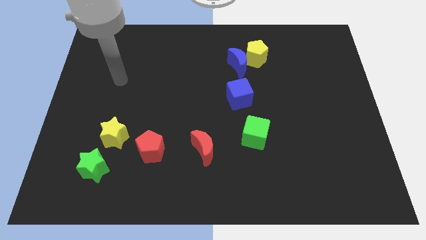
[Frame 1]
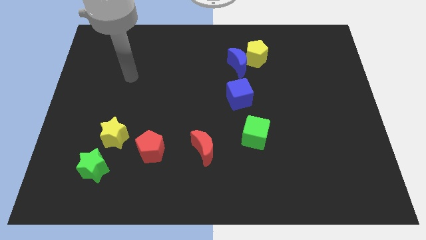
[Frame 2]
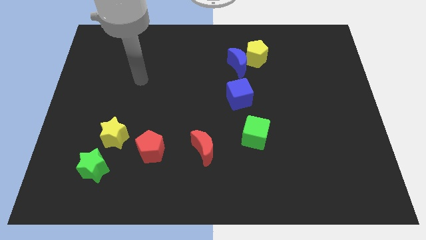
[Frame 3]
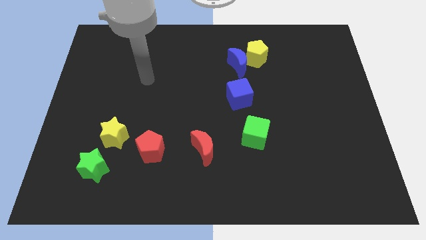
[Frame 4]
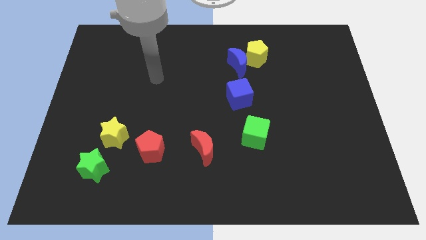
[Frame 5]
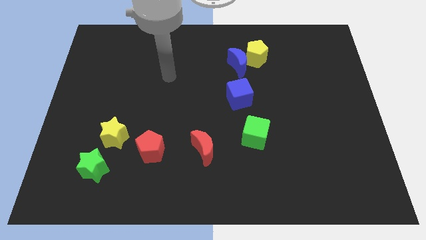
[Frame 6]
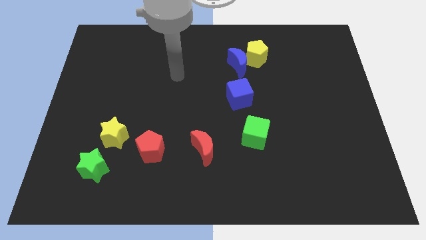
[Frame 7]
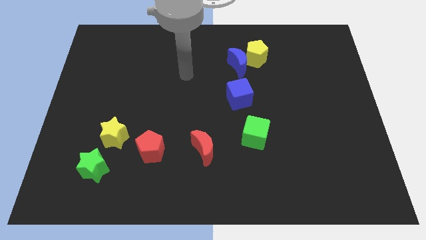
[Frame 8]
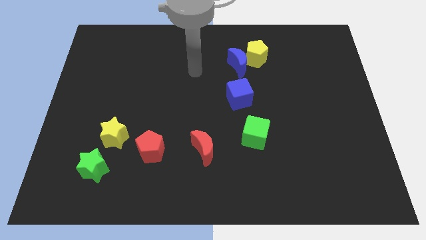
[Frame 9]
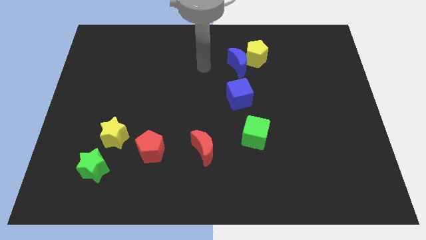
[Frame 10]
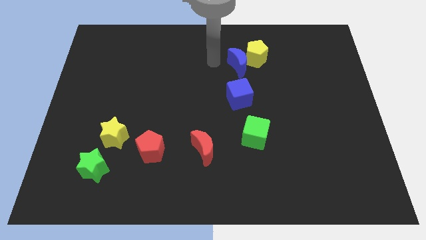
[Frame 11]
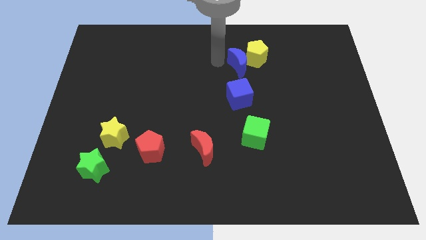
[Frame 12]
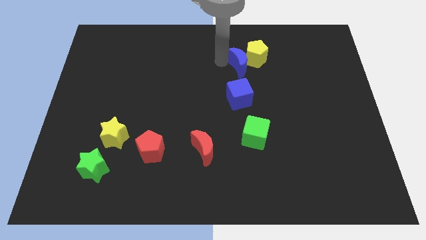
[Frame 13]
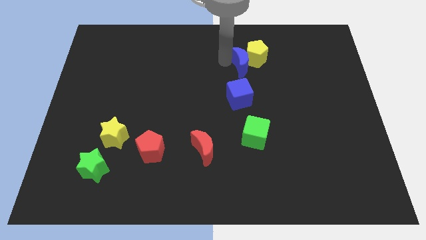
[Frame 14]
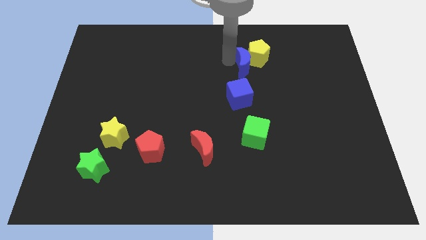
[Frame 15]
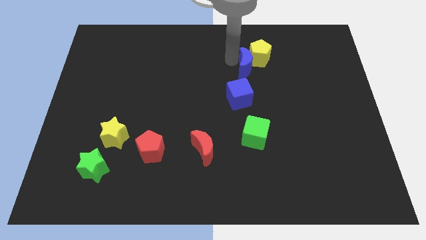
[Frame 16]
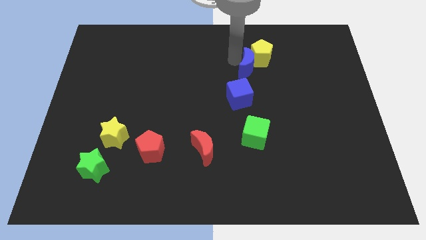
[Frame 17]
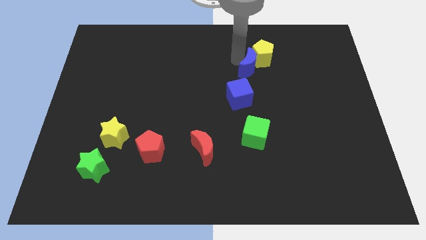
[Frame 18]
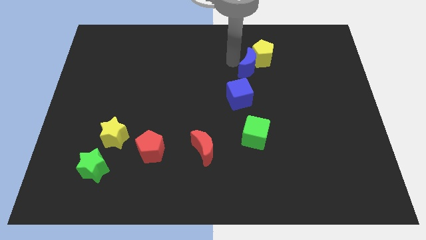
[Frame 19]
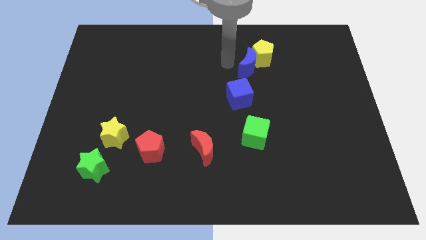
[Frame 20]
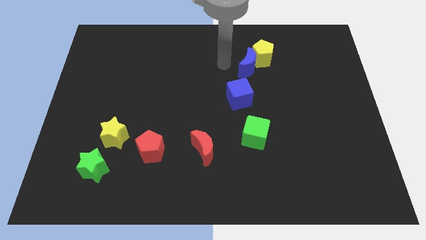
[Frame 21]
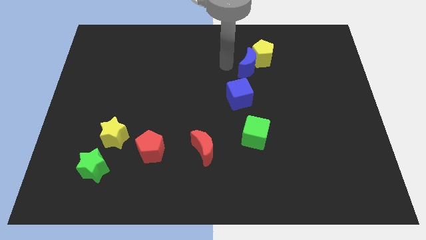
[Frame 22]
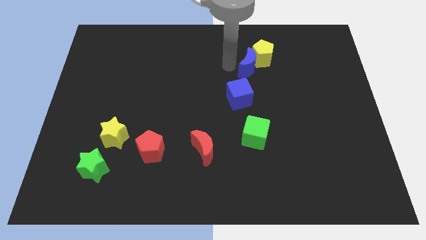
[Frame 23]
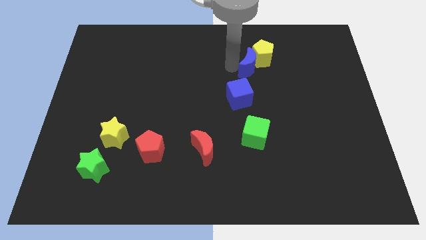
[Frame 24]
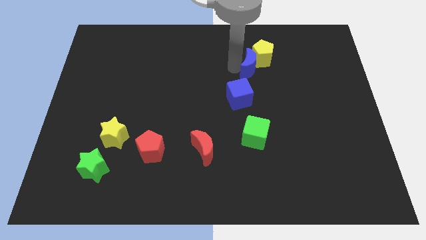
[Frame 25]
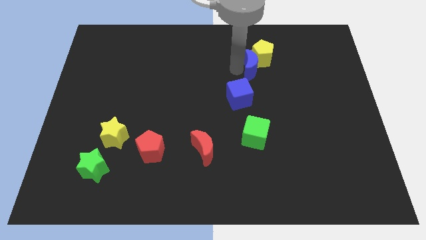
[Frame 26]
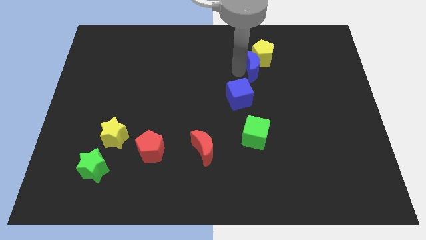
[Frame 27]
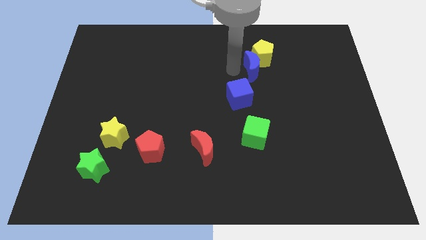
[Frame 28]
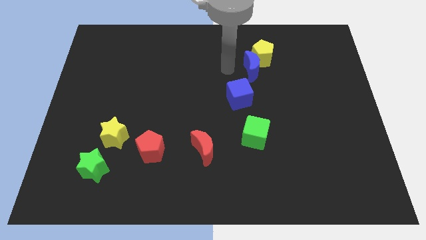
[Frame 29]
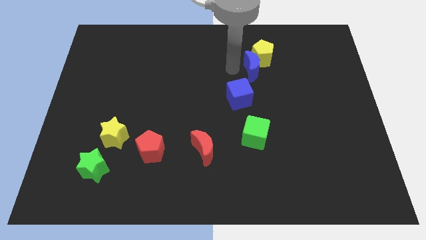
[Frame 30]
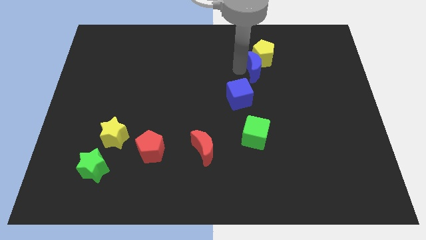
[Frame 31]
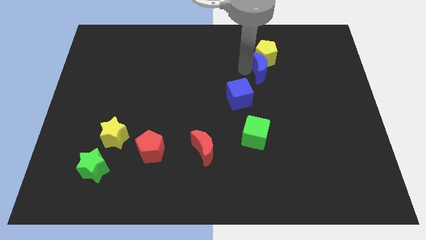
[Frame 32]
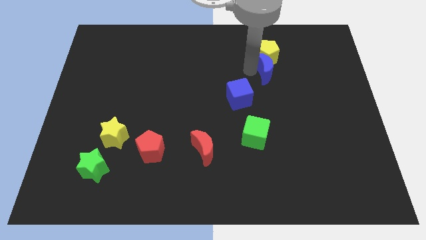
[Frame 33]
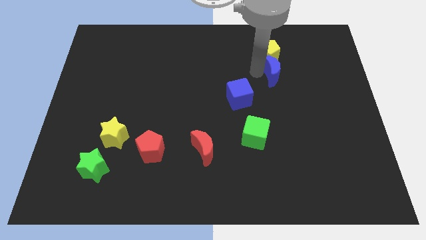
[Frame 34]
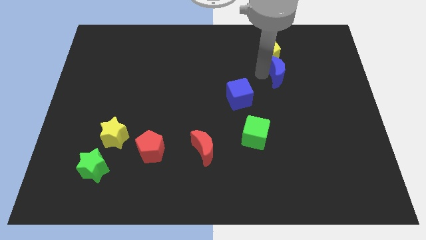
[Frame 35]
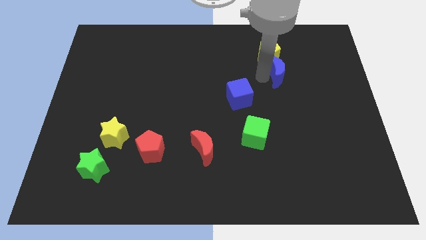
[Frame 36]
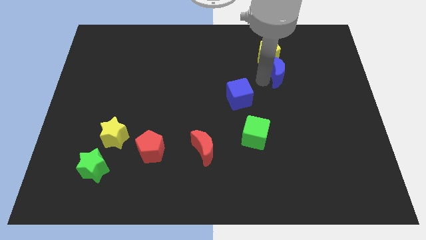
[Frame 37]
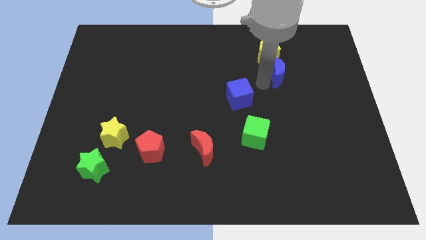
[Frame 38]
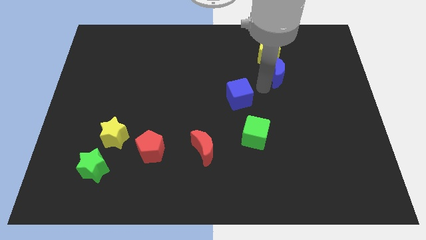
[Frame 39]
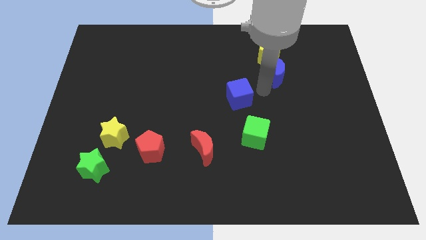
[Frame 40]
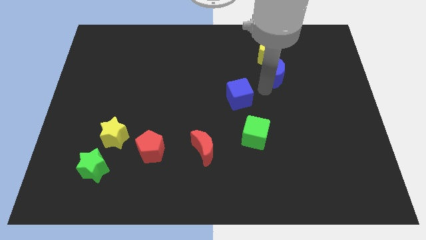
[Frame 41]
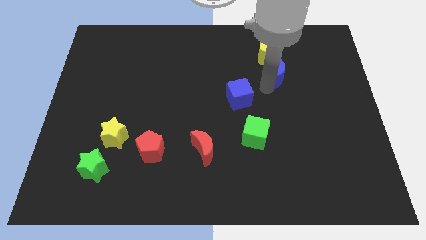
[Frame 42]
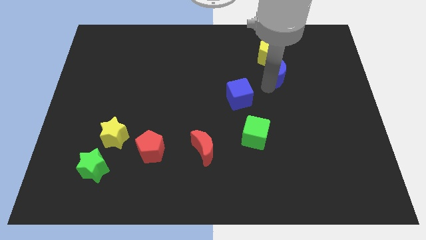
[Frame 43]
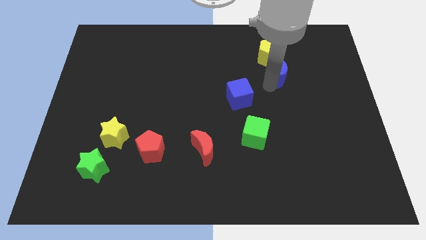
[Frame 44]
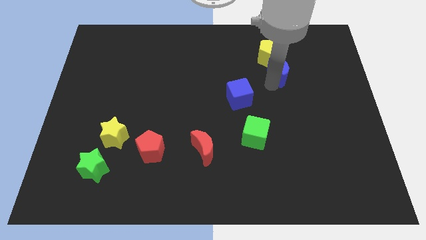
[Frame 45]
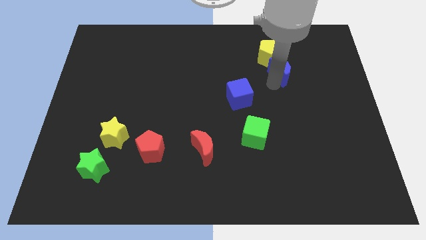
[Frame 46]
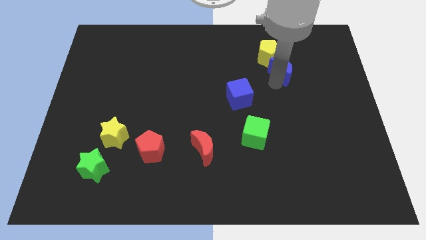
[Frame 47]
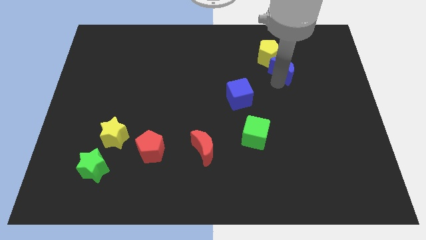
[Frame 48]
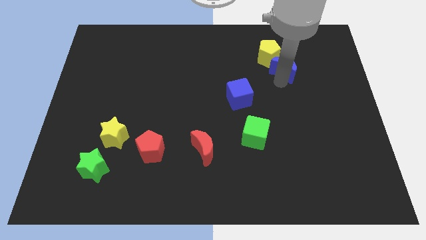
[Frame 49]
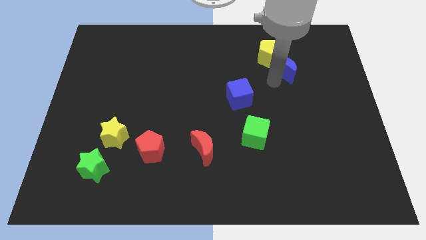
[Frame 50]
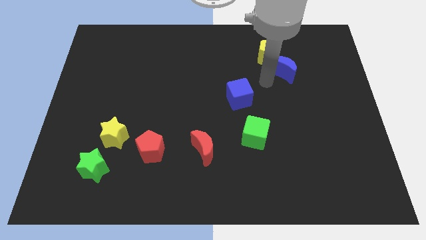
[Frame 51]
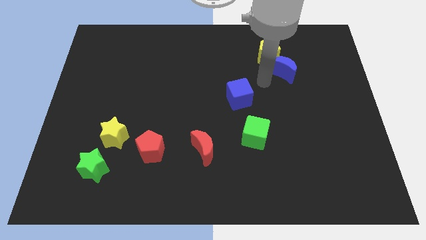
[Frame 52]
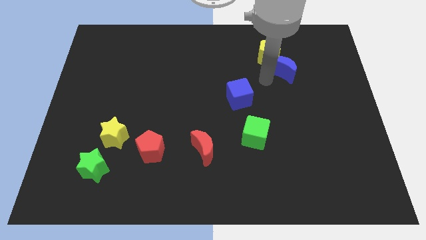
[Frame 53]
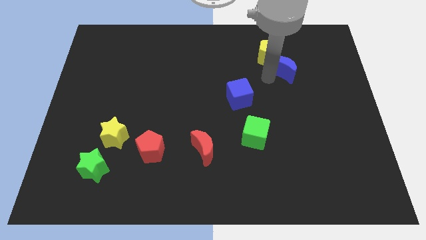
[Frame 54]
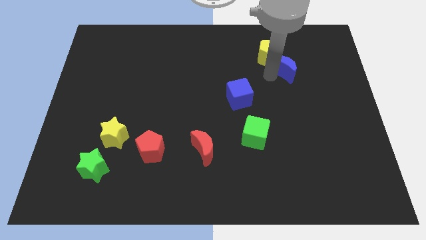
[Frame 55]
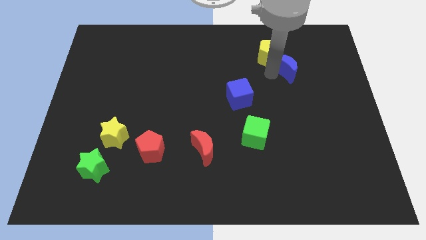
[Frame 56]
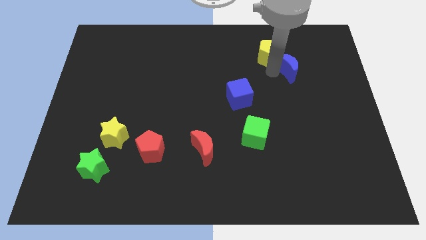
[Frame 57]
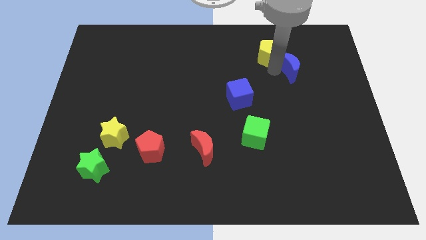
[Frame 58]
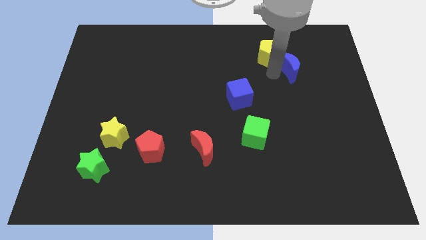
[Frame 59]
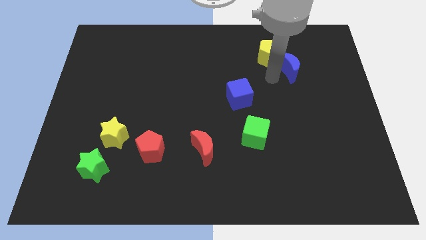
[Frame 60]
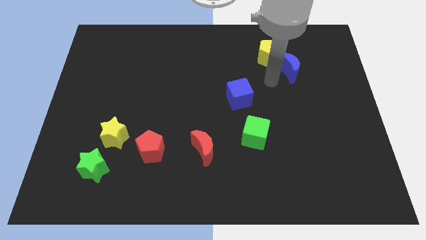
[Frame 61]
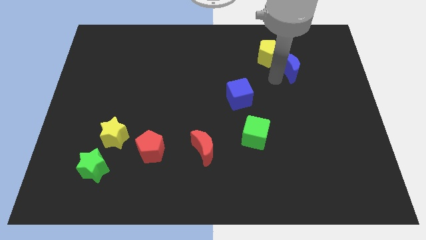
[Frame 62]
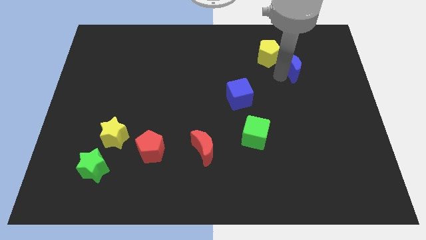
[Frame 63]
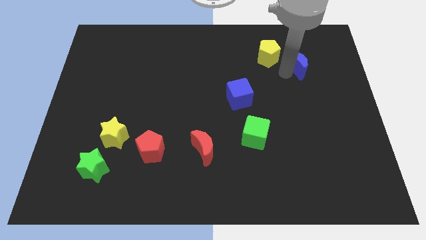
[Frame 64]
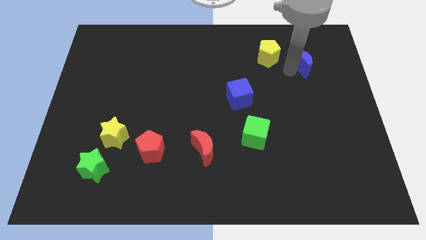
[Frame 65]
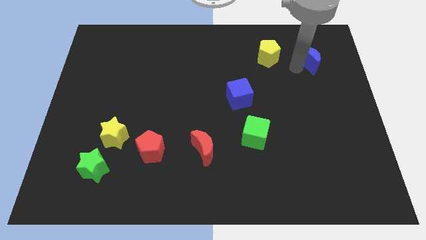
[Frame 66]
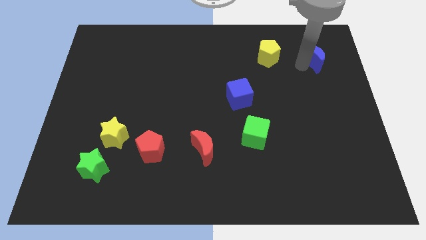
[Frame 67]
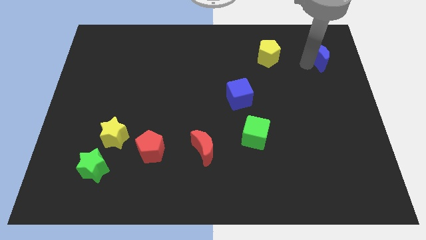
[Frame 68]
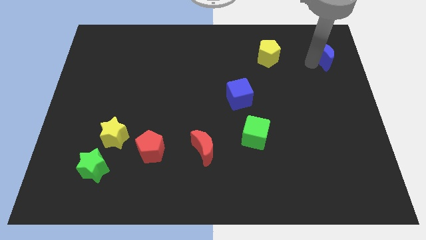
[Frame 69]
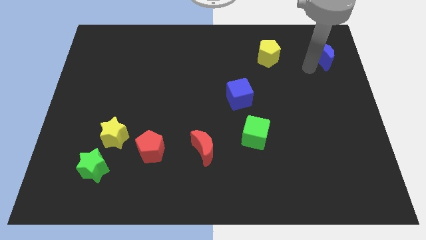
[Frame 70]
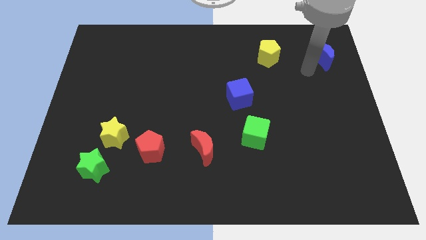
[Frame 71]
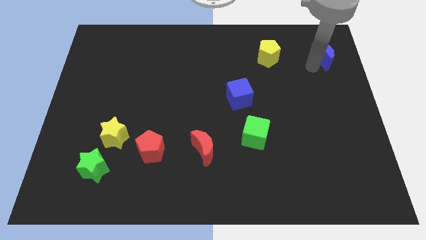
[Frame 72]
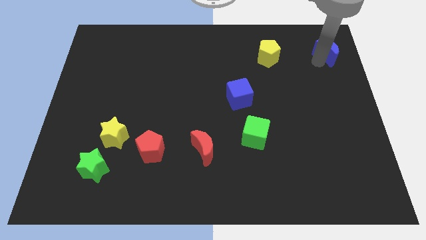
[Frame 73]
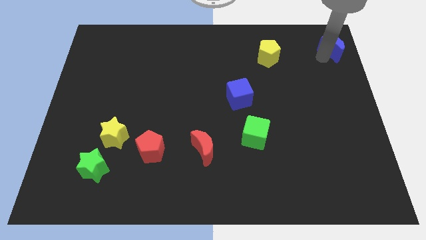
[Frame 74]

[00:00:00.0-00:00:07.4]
move the blue moon to the top right

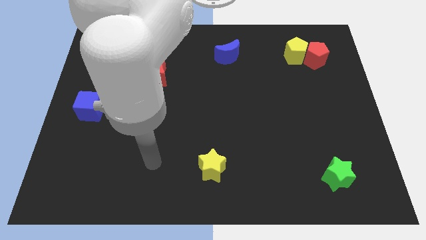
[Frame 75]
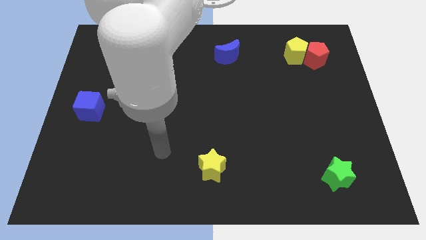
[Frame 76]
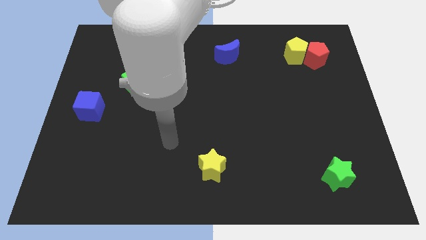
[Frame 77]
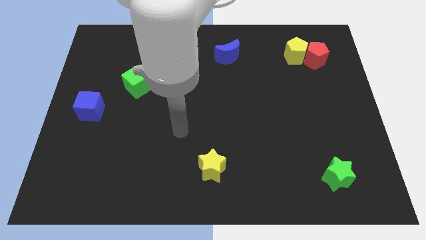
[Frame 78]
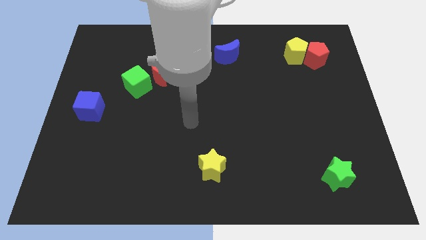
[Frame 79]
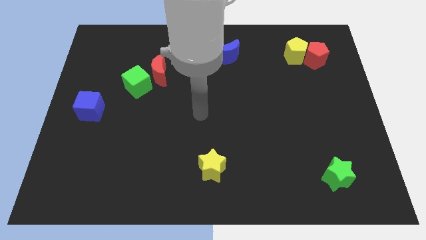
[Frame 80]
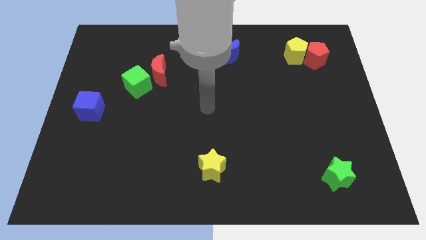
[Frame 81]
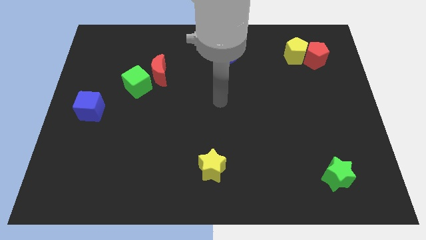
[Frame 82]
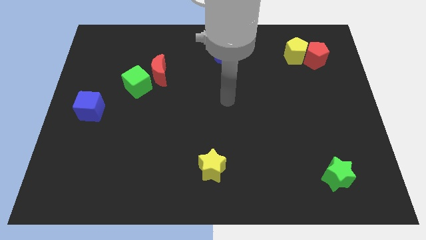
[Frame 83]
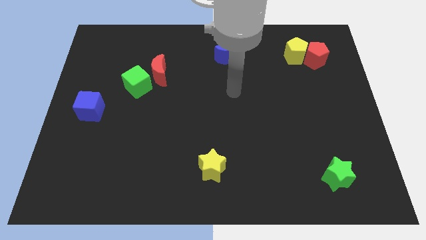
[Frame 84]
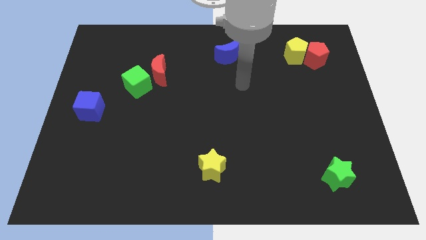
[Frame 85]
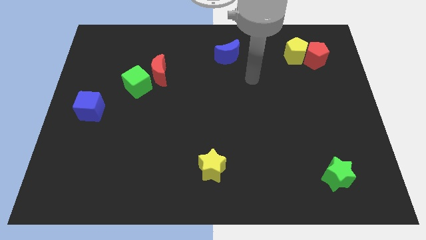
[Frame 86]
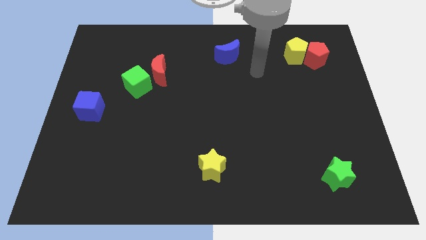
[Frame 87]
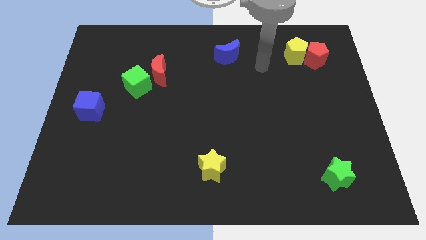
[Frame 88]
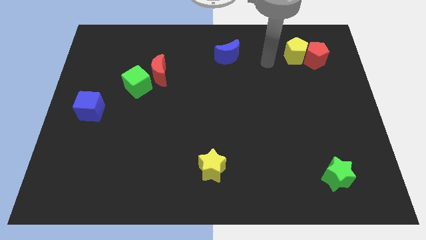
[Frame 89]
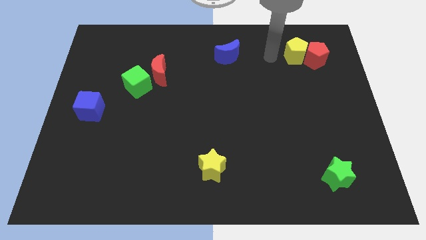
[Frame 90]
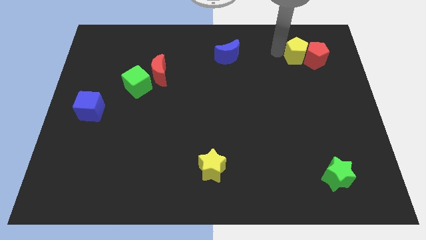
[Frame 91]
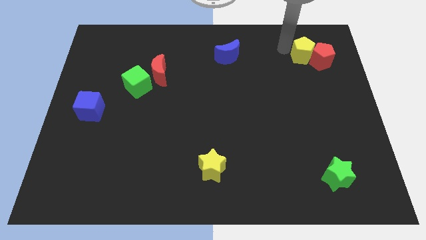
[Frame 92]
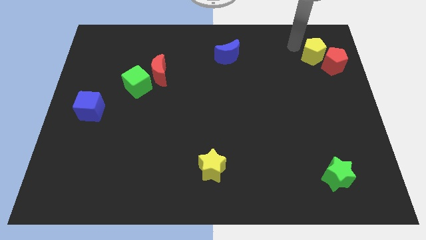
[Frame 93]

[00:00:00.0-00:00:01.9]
slide the red pentagon to the center right
